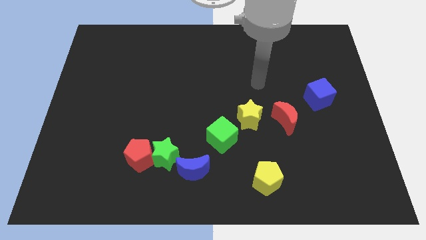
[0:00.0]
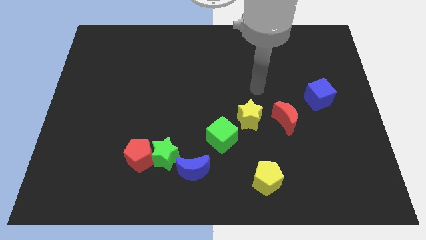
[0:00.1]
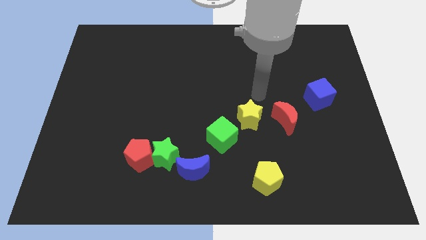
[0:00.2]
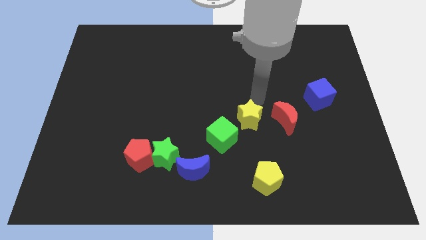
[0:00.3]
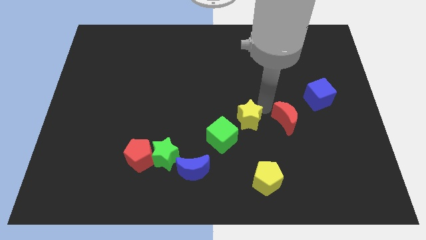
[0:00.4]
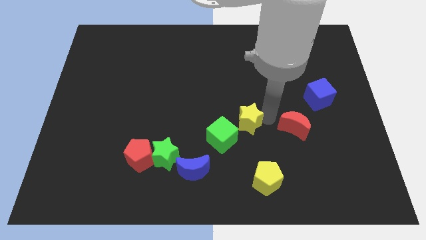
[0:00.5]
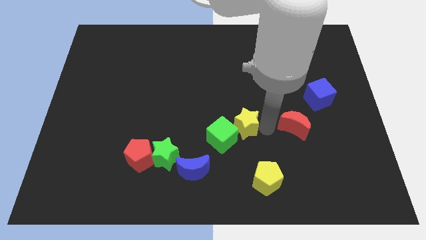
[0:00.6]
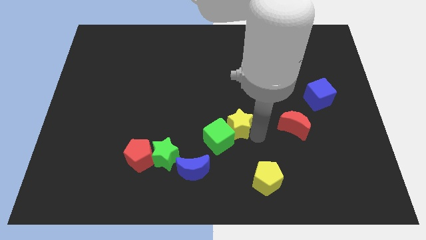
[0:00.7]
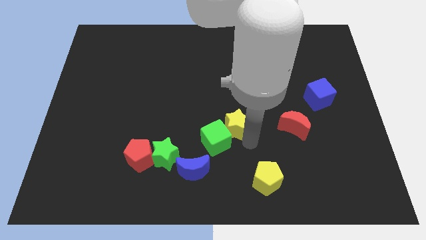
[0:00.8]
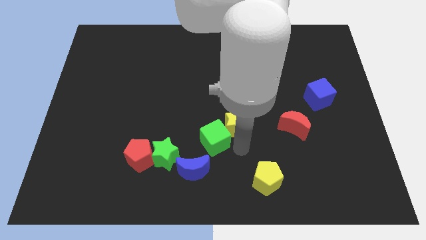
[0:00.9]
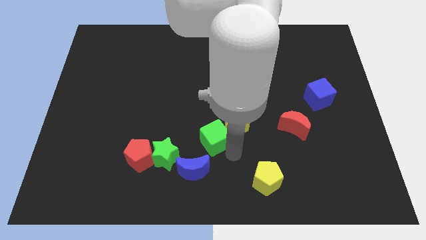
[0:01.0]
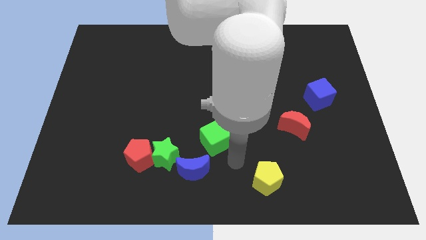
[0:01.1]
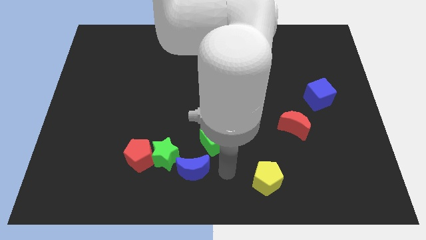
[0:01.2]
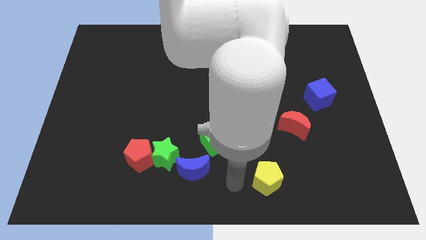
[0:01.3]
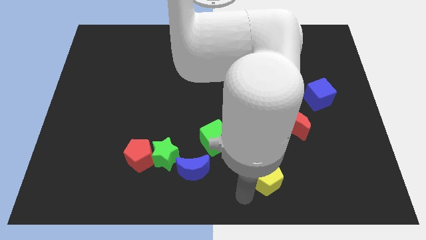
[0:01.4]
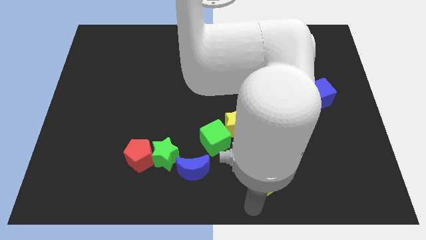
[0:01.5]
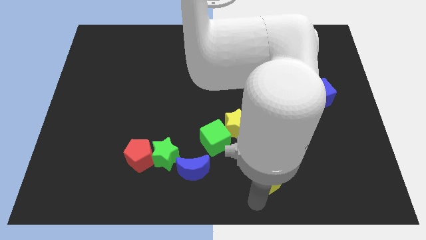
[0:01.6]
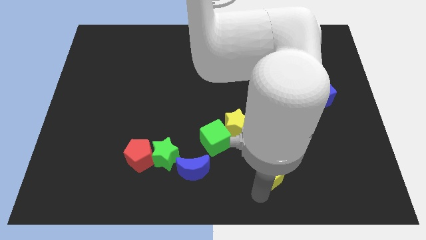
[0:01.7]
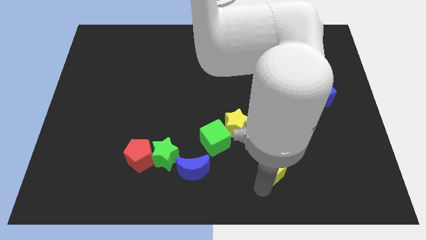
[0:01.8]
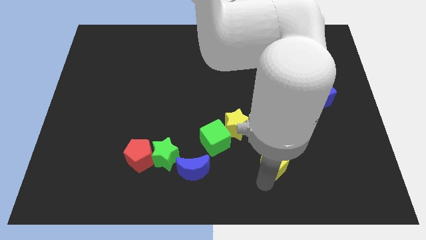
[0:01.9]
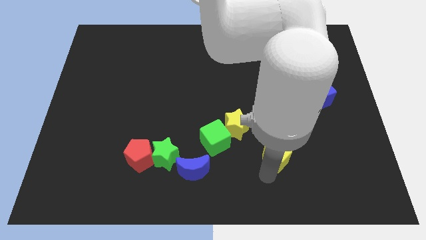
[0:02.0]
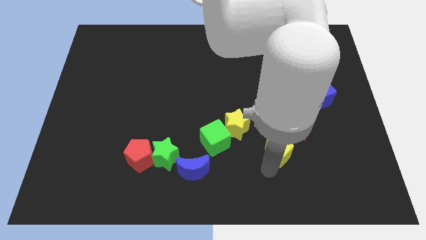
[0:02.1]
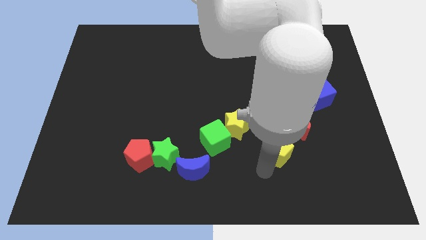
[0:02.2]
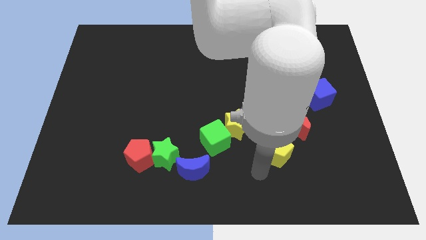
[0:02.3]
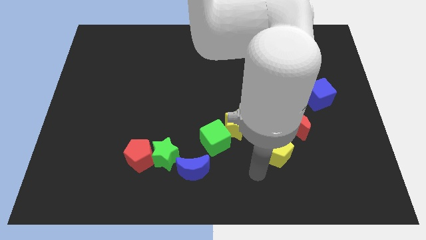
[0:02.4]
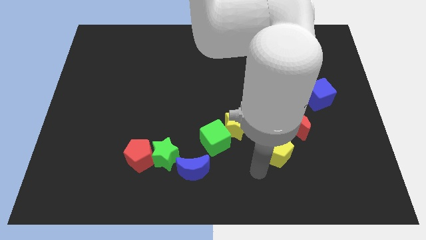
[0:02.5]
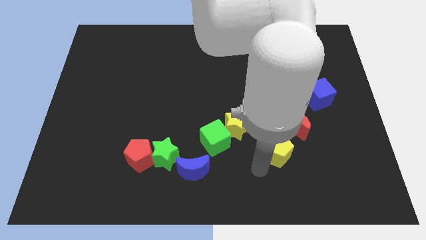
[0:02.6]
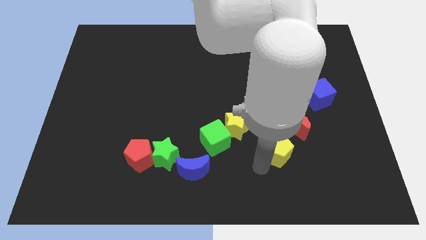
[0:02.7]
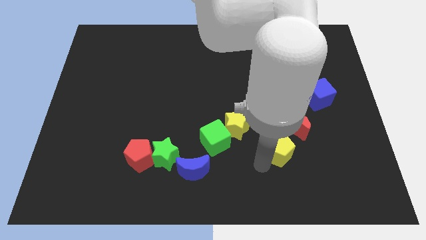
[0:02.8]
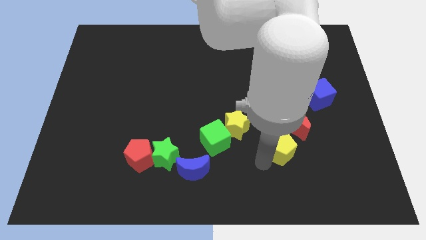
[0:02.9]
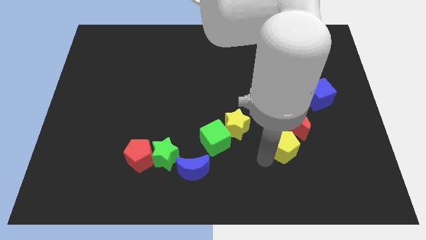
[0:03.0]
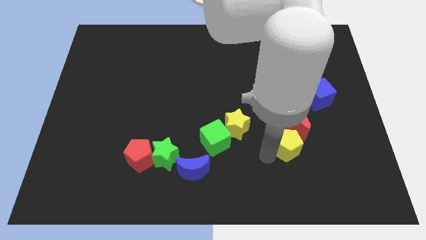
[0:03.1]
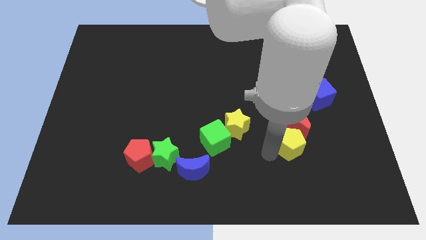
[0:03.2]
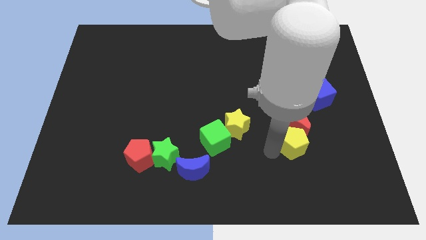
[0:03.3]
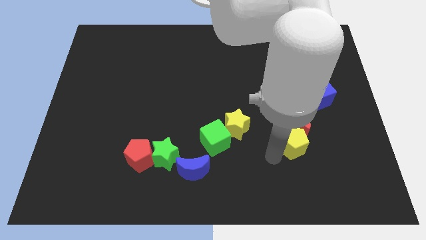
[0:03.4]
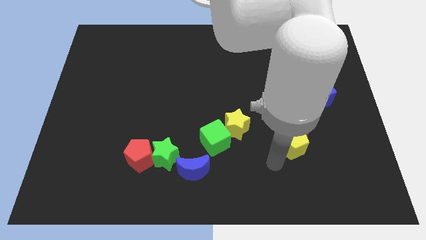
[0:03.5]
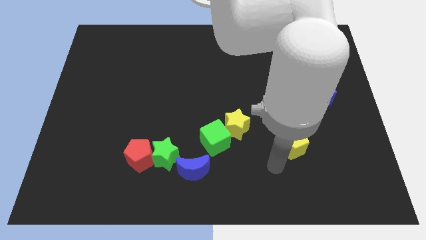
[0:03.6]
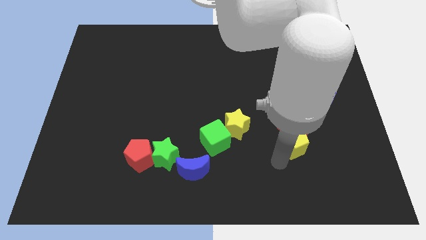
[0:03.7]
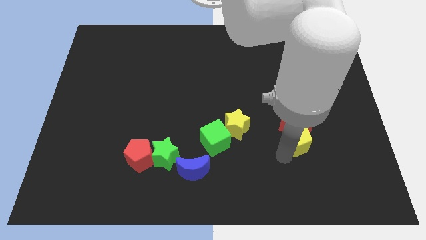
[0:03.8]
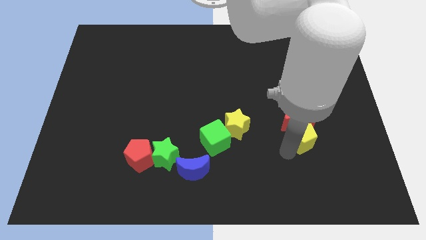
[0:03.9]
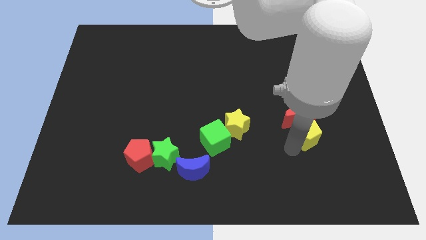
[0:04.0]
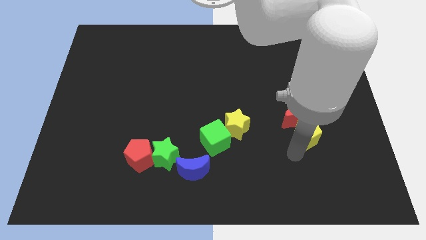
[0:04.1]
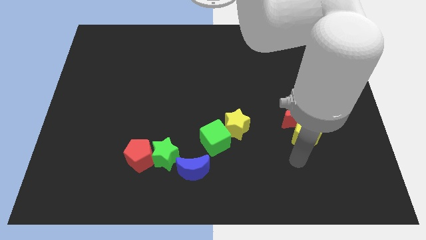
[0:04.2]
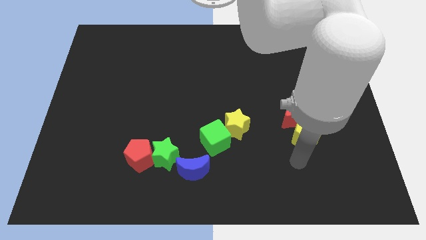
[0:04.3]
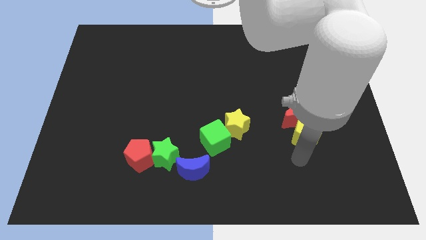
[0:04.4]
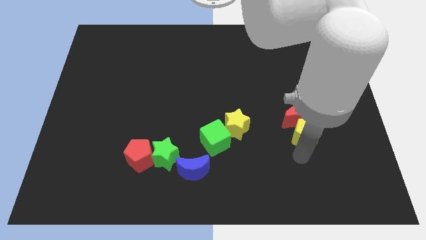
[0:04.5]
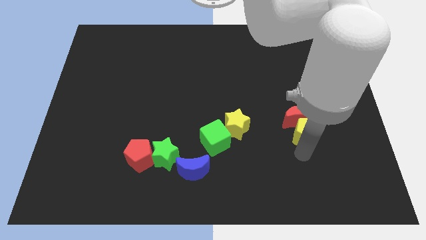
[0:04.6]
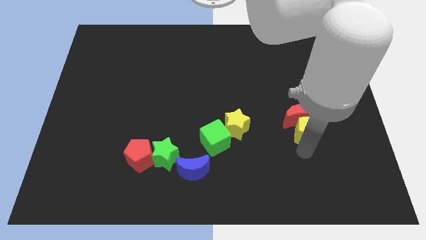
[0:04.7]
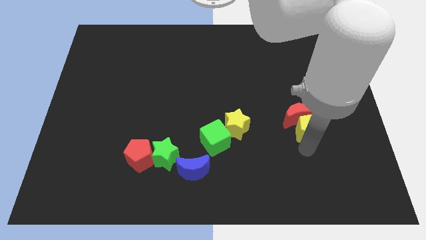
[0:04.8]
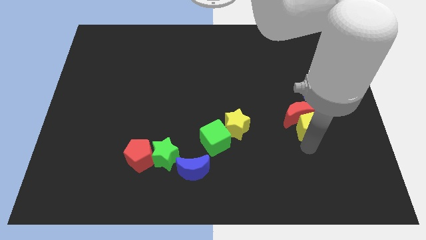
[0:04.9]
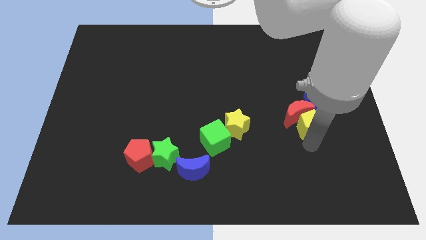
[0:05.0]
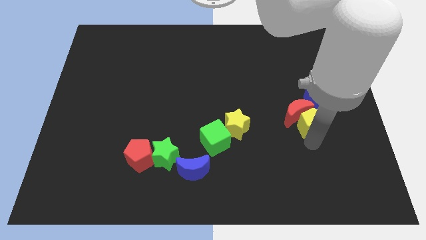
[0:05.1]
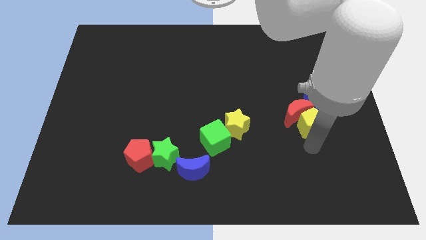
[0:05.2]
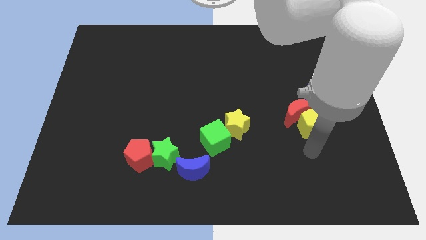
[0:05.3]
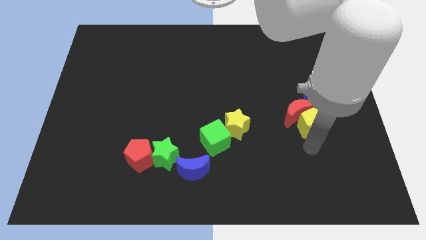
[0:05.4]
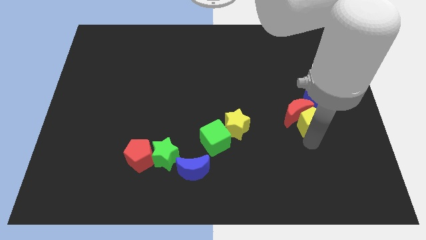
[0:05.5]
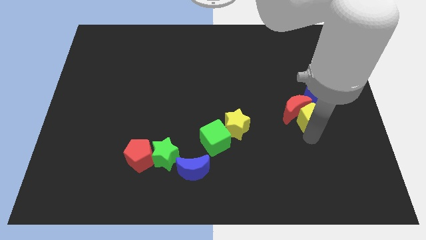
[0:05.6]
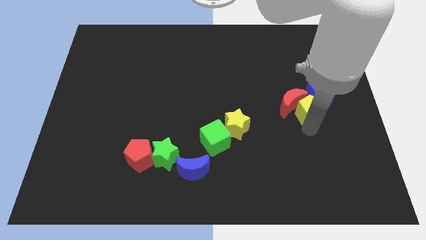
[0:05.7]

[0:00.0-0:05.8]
put the yellow pentagon next to the blue cube

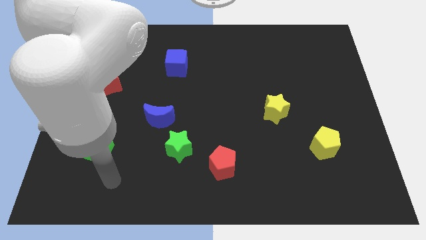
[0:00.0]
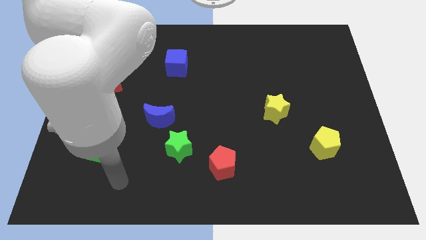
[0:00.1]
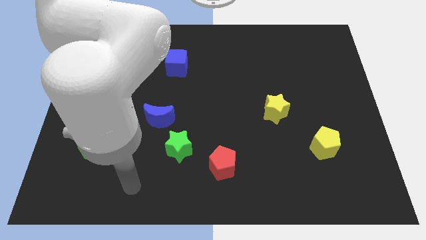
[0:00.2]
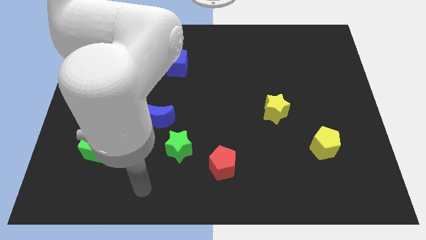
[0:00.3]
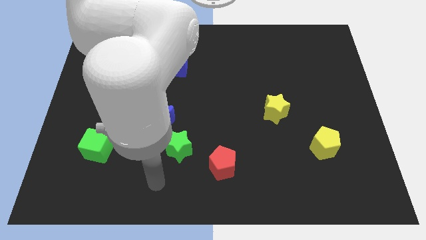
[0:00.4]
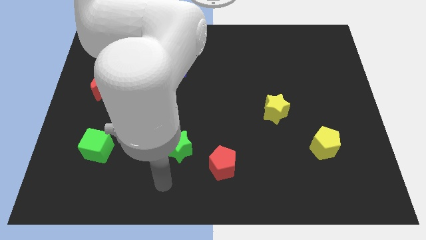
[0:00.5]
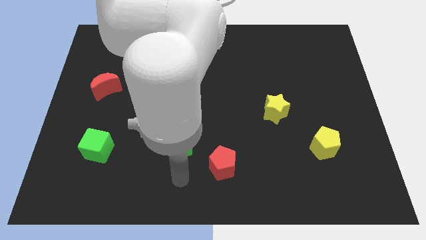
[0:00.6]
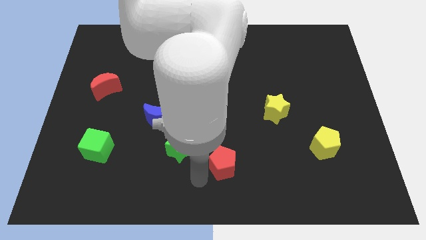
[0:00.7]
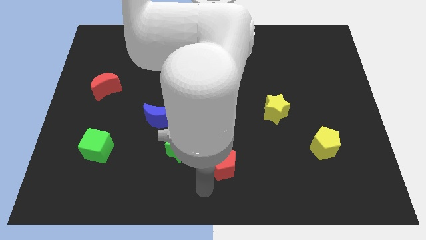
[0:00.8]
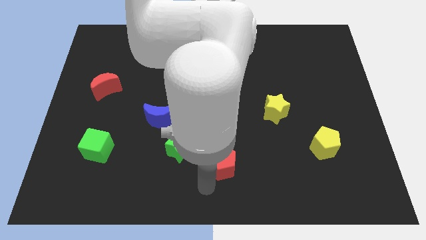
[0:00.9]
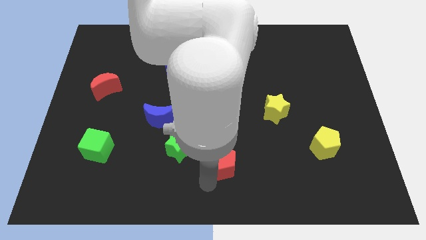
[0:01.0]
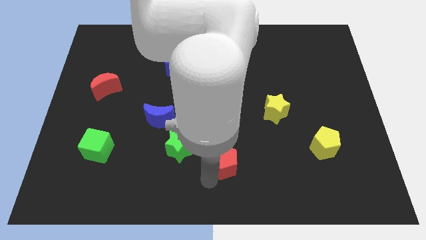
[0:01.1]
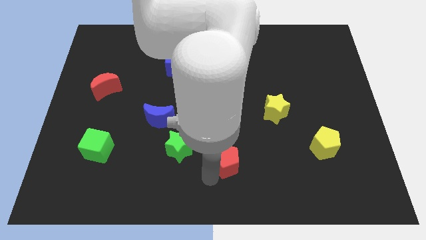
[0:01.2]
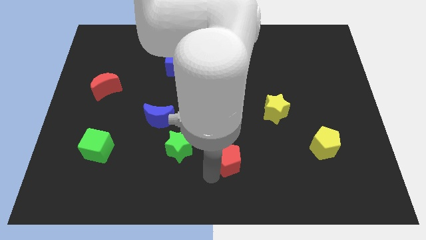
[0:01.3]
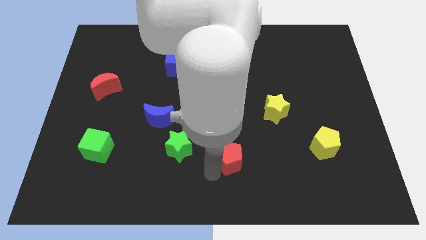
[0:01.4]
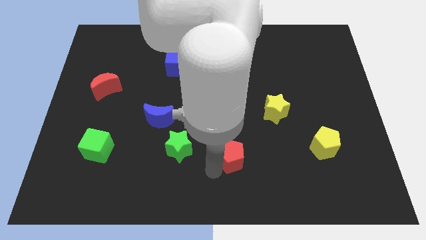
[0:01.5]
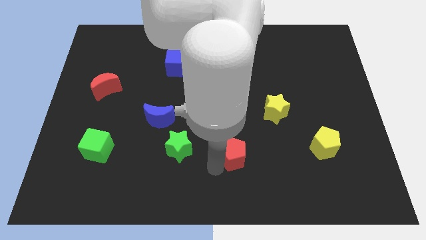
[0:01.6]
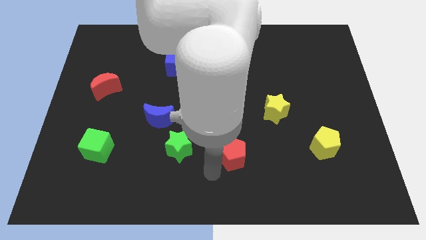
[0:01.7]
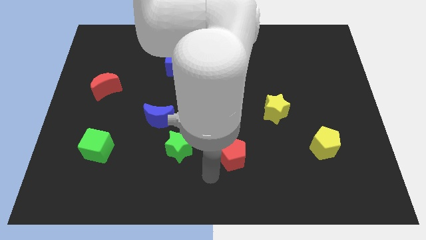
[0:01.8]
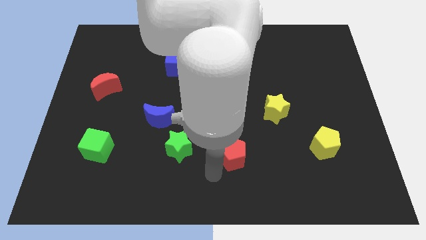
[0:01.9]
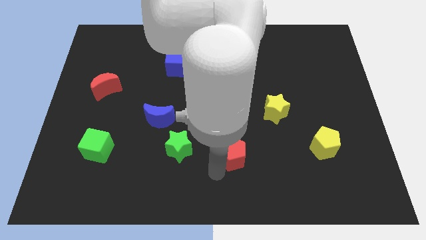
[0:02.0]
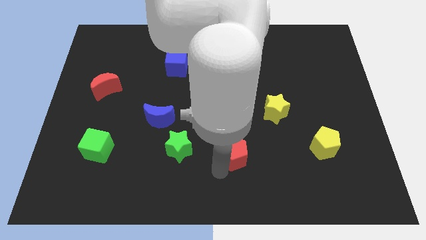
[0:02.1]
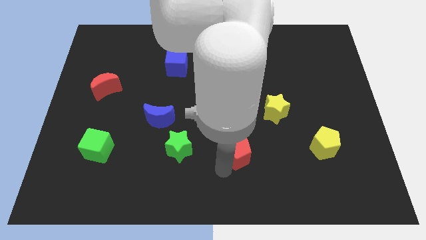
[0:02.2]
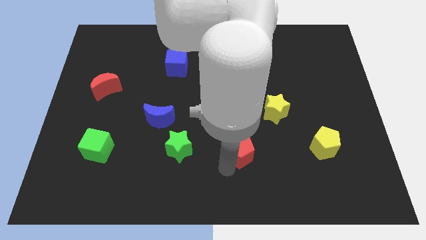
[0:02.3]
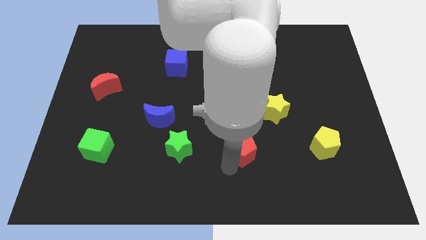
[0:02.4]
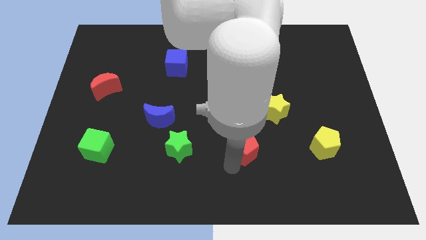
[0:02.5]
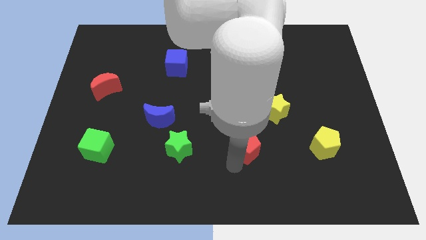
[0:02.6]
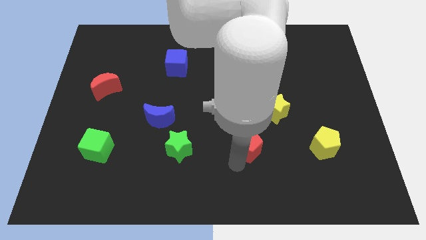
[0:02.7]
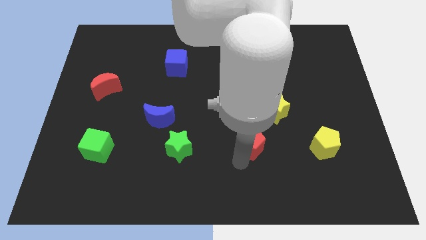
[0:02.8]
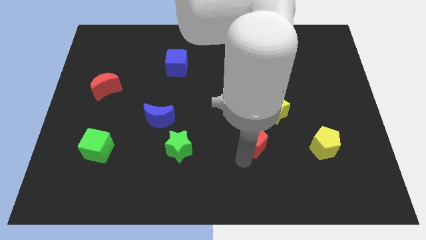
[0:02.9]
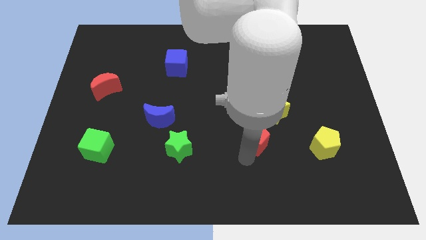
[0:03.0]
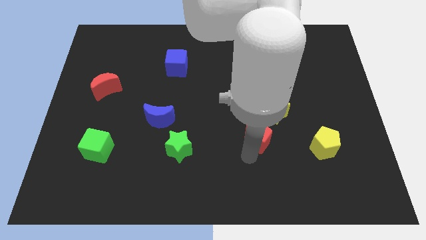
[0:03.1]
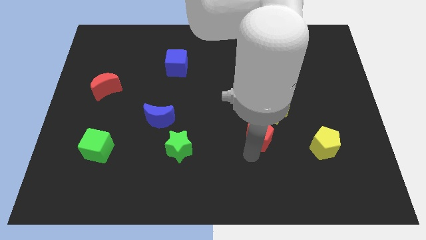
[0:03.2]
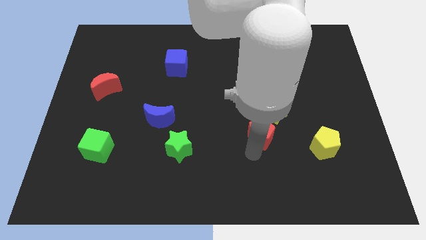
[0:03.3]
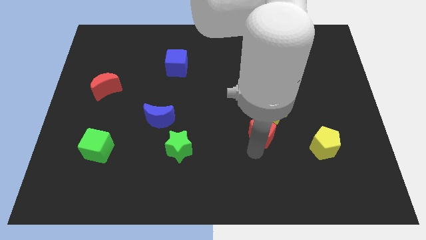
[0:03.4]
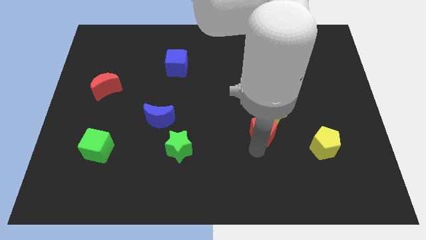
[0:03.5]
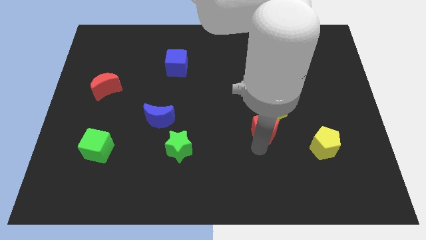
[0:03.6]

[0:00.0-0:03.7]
slide the red pentagon close to the yellow star
